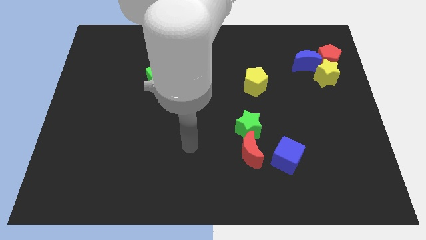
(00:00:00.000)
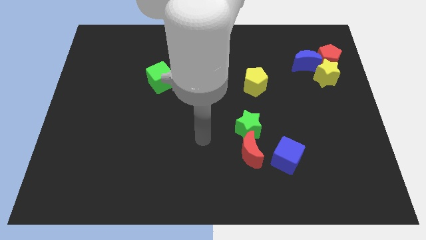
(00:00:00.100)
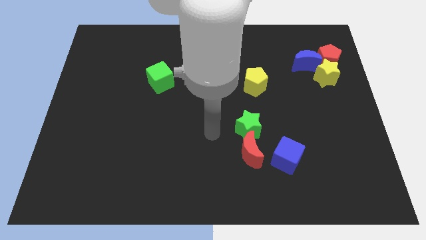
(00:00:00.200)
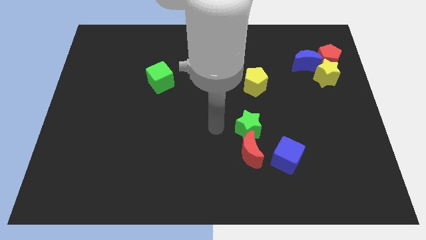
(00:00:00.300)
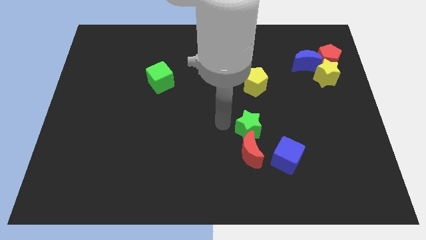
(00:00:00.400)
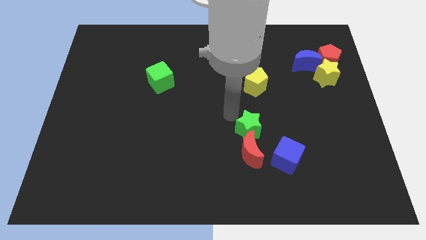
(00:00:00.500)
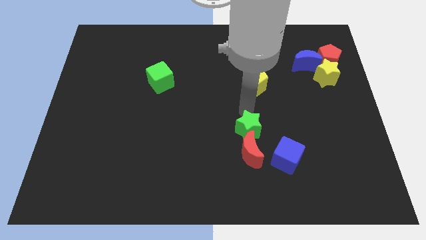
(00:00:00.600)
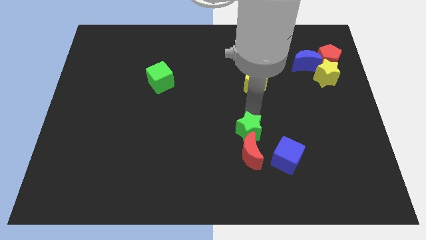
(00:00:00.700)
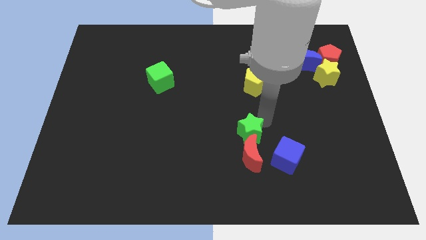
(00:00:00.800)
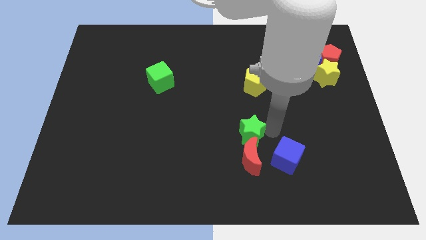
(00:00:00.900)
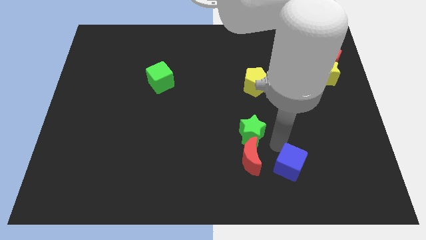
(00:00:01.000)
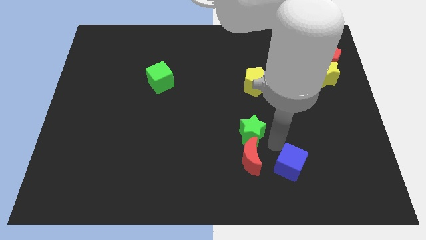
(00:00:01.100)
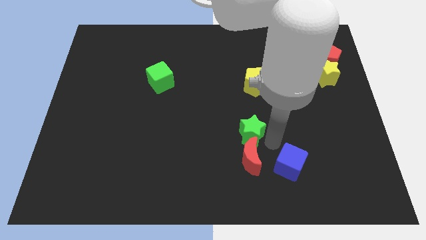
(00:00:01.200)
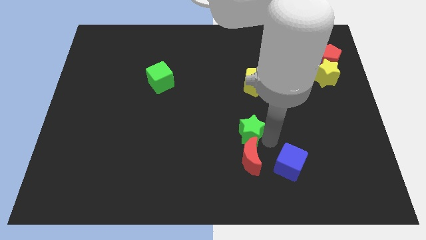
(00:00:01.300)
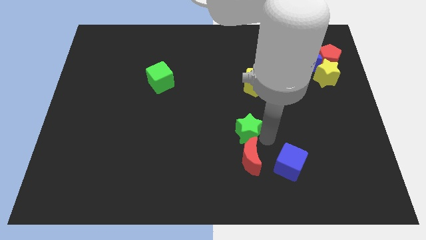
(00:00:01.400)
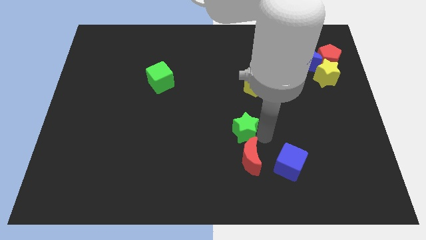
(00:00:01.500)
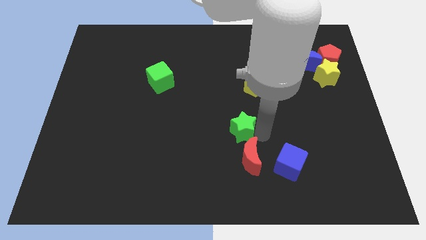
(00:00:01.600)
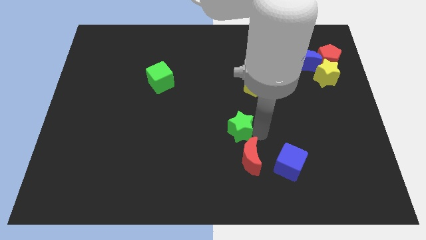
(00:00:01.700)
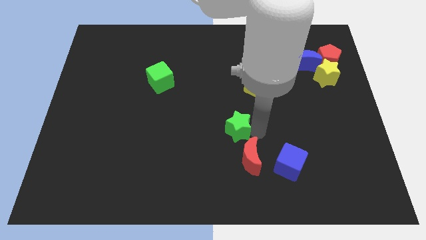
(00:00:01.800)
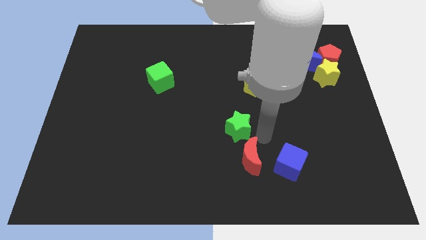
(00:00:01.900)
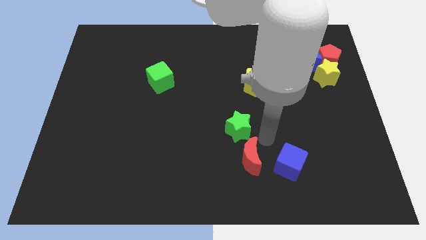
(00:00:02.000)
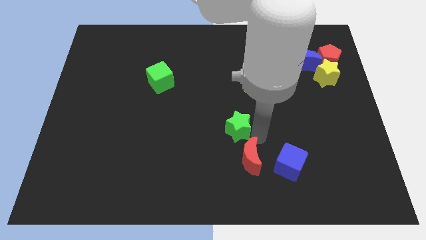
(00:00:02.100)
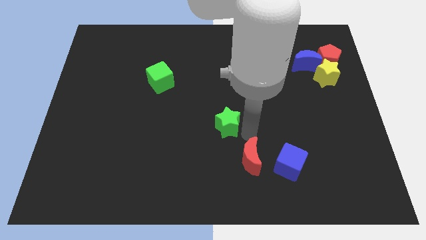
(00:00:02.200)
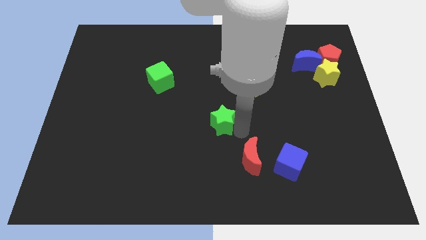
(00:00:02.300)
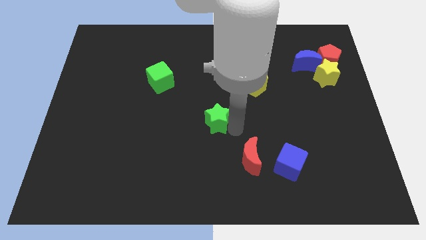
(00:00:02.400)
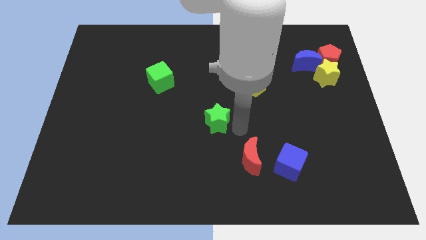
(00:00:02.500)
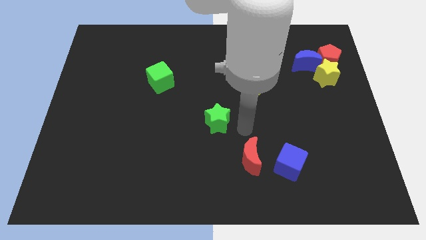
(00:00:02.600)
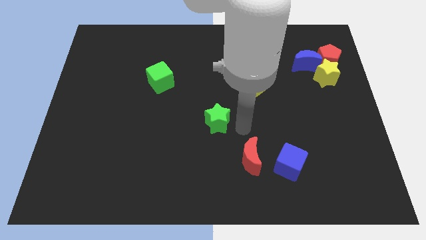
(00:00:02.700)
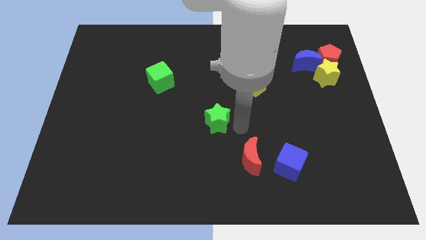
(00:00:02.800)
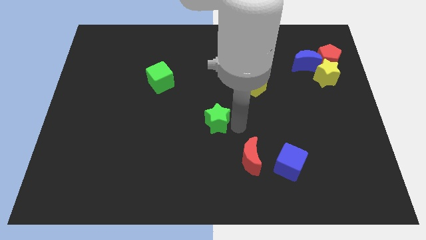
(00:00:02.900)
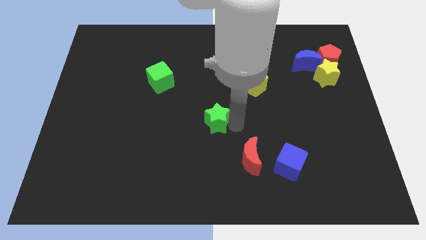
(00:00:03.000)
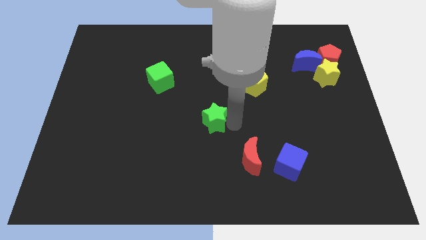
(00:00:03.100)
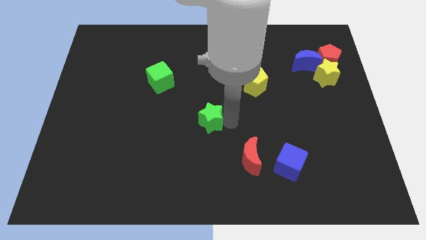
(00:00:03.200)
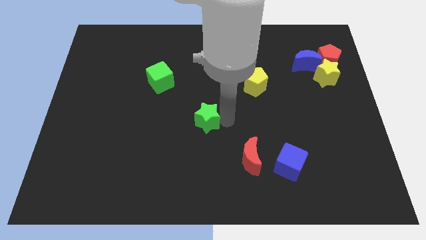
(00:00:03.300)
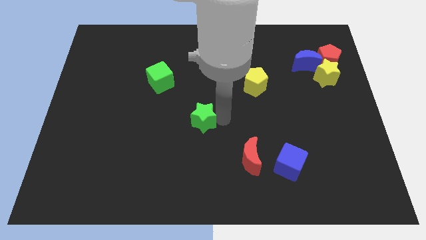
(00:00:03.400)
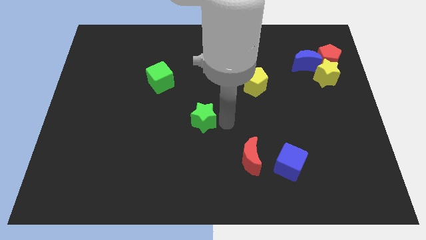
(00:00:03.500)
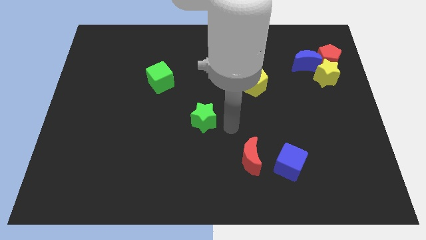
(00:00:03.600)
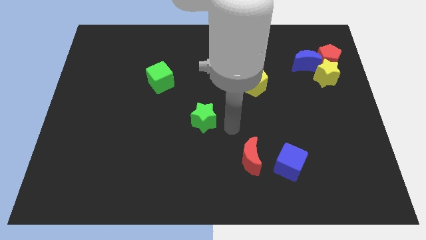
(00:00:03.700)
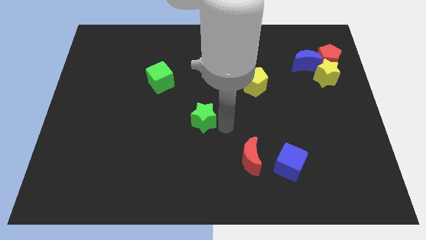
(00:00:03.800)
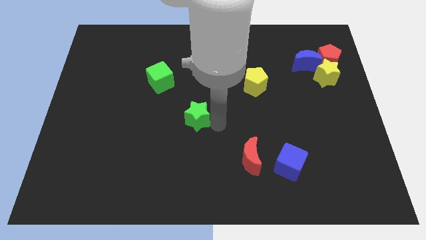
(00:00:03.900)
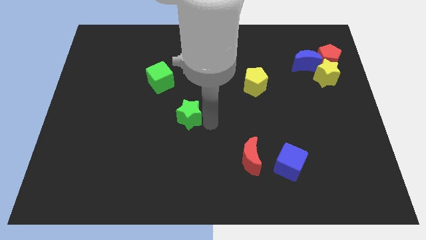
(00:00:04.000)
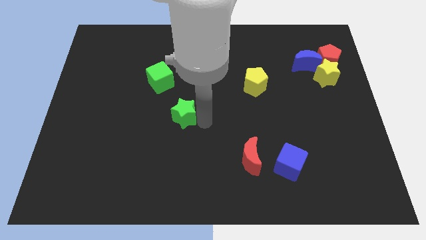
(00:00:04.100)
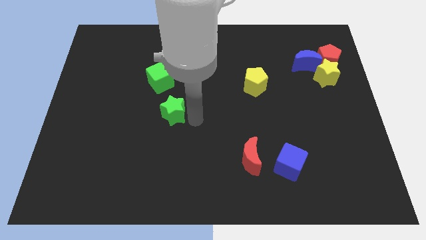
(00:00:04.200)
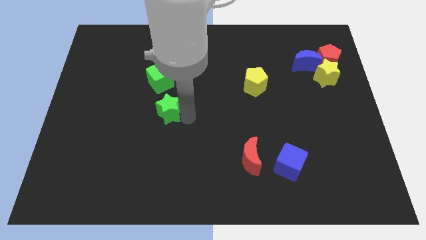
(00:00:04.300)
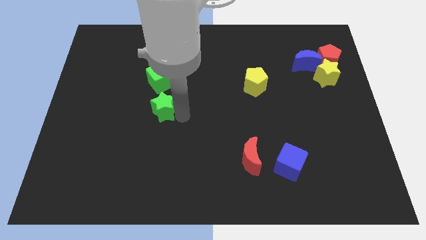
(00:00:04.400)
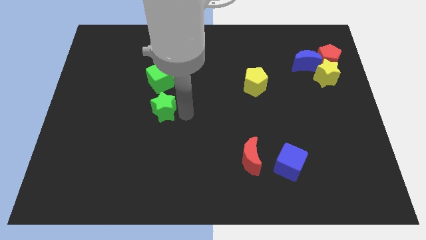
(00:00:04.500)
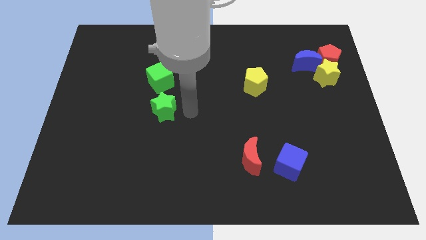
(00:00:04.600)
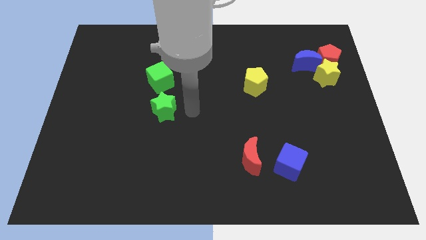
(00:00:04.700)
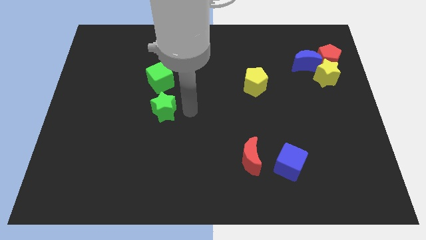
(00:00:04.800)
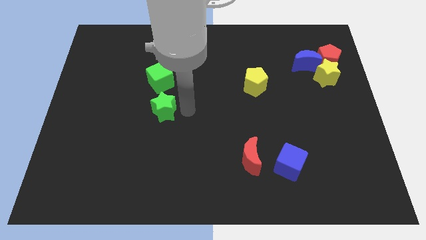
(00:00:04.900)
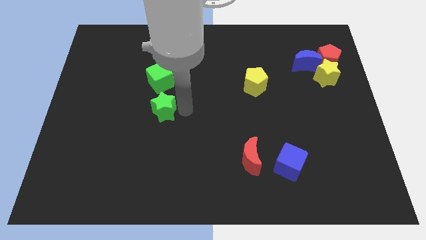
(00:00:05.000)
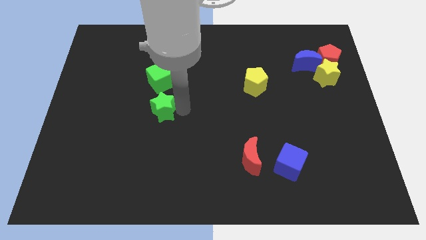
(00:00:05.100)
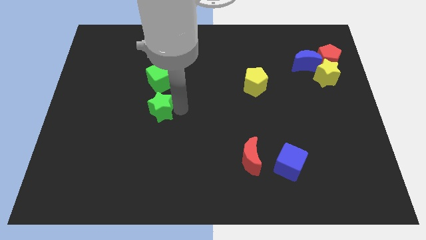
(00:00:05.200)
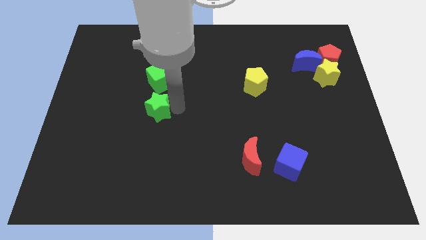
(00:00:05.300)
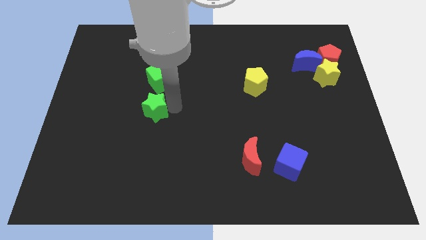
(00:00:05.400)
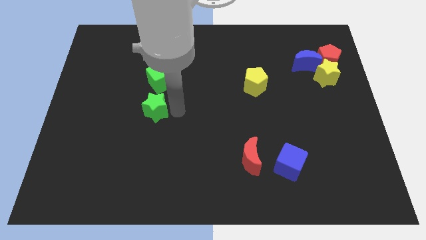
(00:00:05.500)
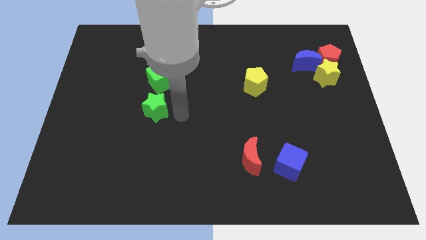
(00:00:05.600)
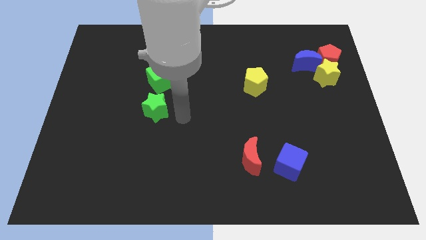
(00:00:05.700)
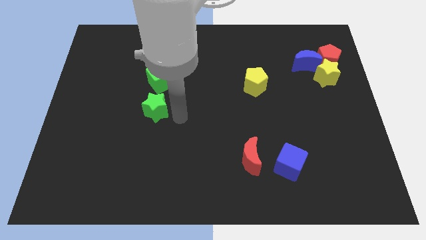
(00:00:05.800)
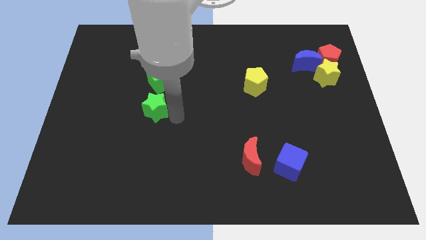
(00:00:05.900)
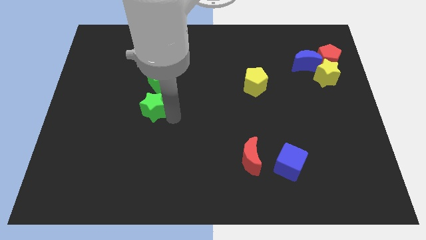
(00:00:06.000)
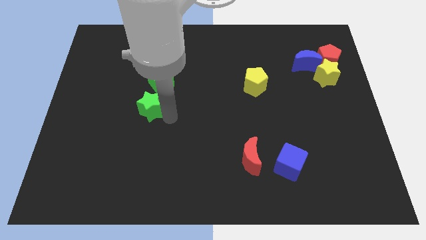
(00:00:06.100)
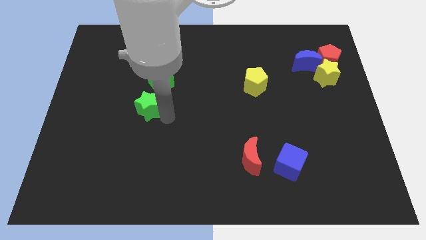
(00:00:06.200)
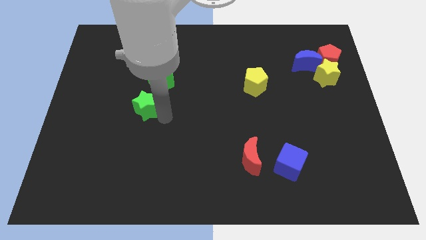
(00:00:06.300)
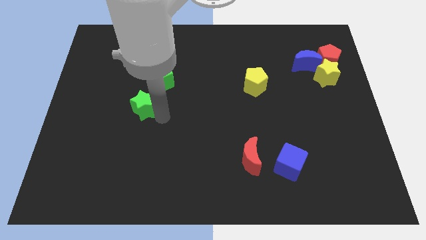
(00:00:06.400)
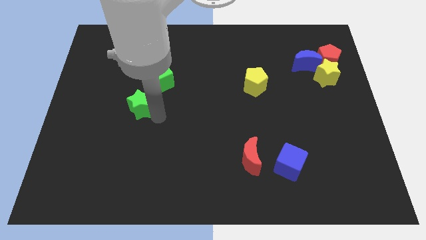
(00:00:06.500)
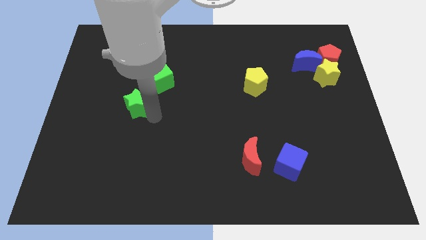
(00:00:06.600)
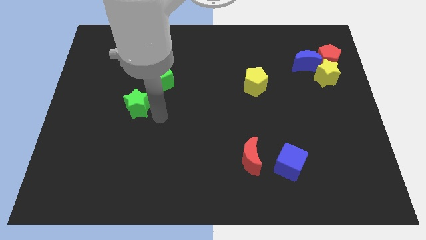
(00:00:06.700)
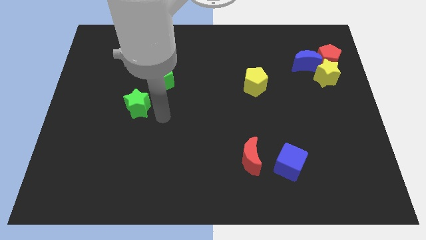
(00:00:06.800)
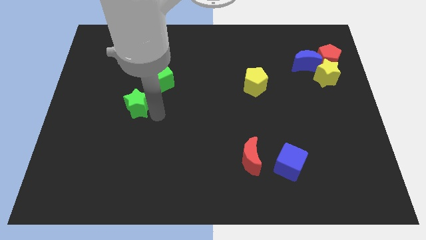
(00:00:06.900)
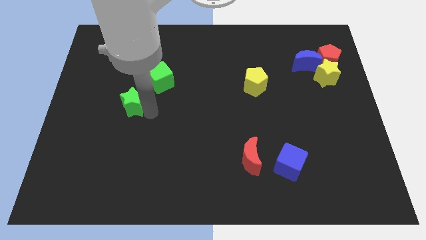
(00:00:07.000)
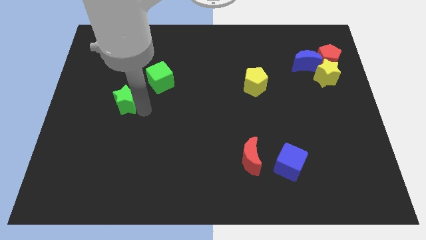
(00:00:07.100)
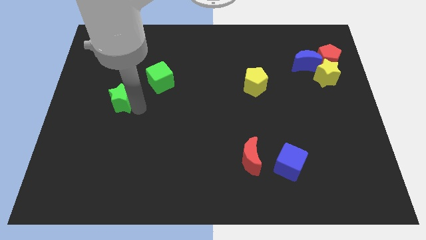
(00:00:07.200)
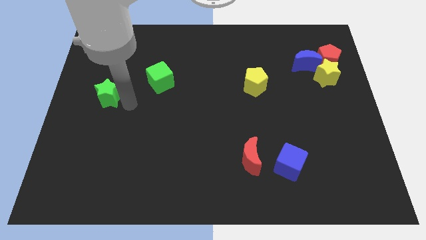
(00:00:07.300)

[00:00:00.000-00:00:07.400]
slide the green star to the left side
